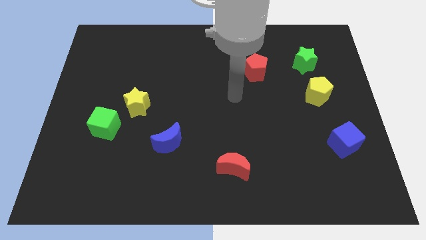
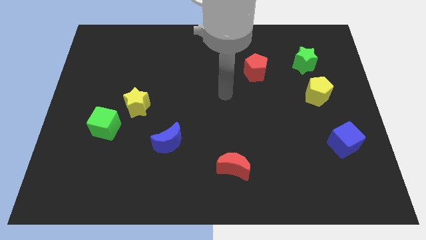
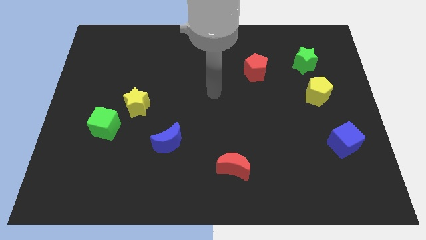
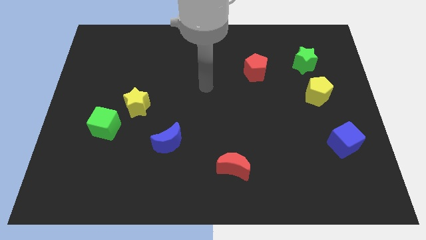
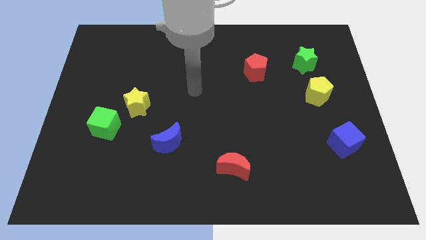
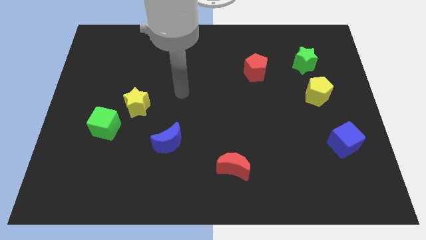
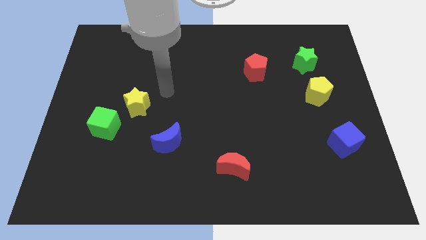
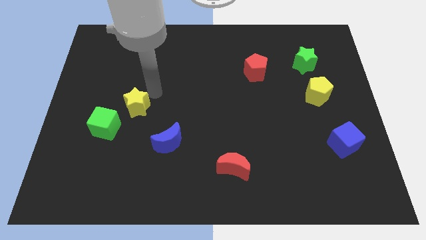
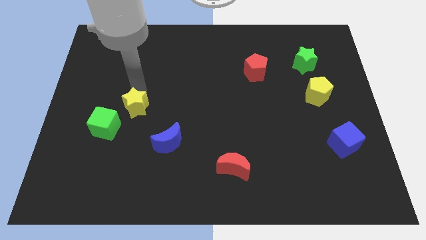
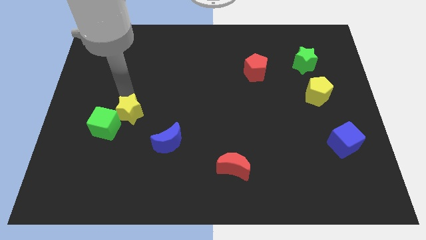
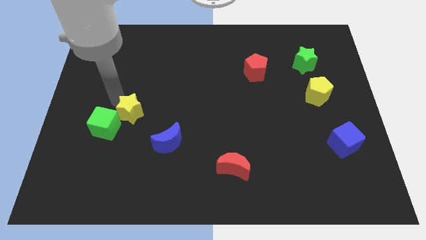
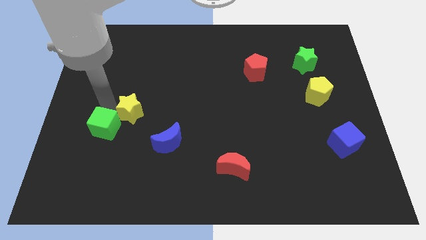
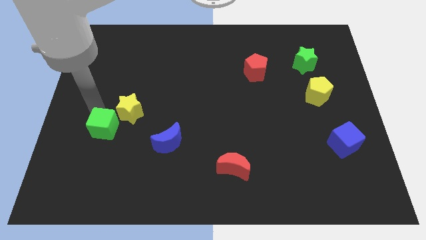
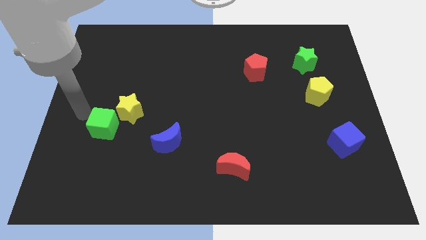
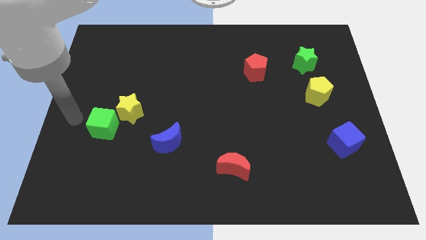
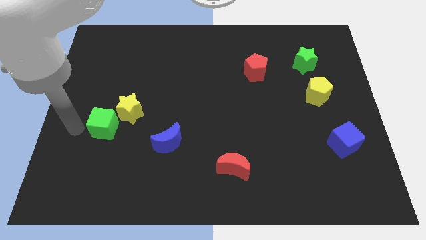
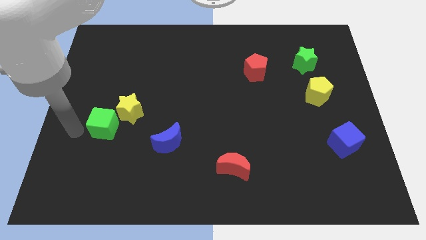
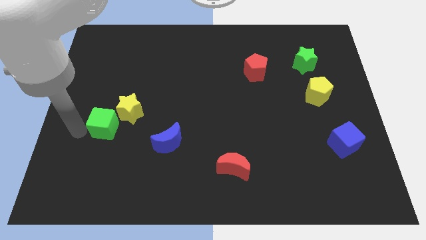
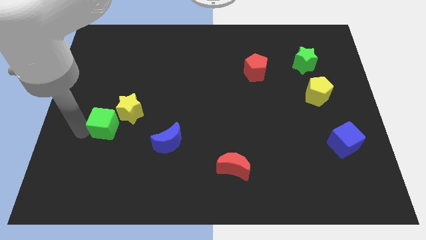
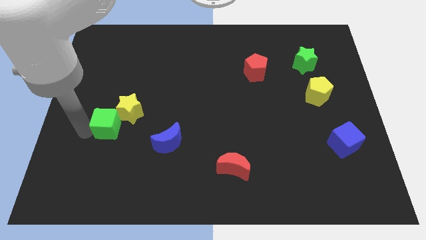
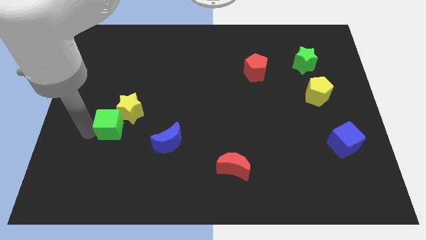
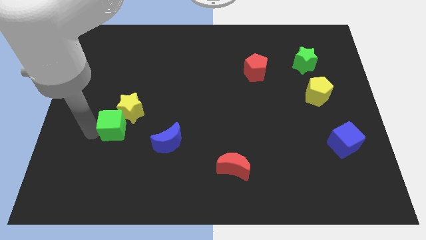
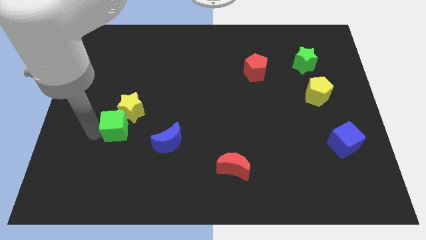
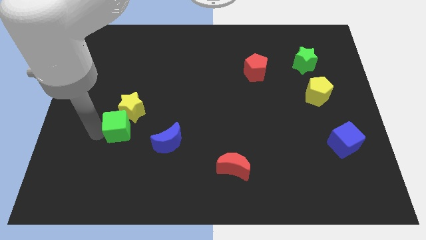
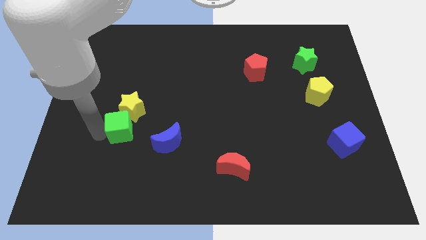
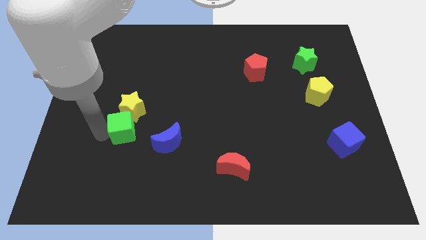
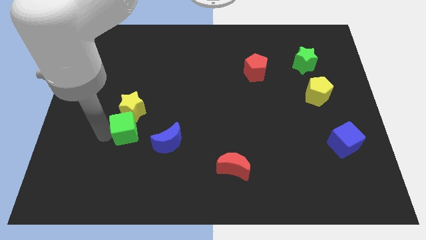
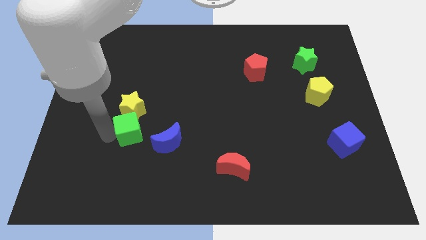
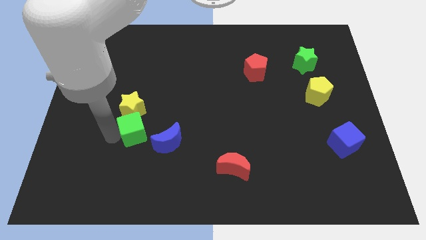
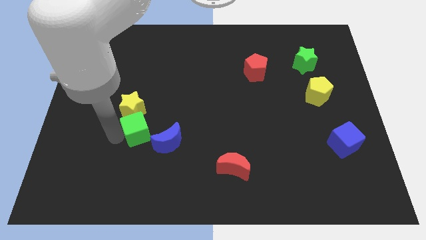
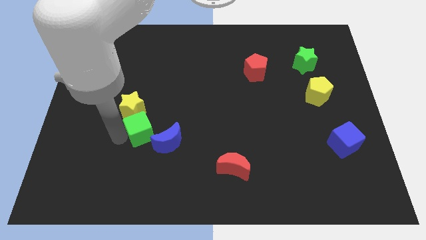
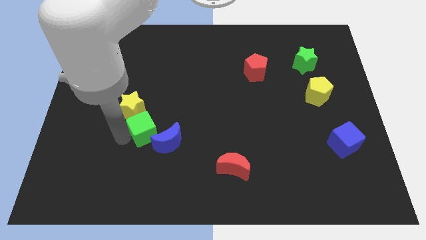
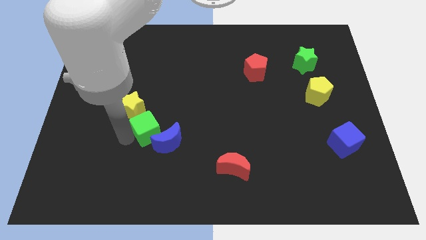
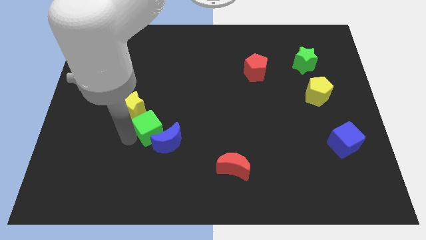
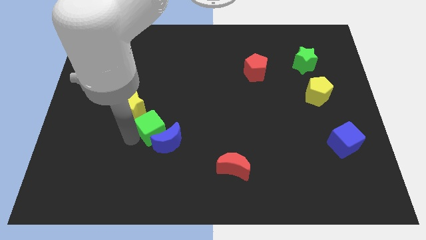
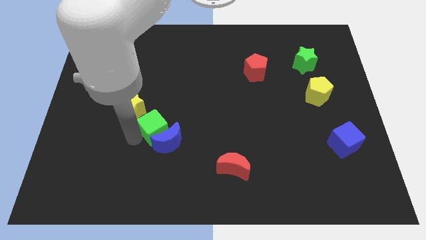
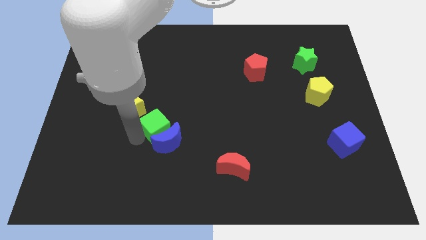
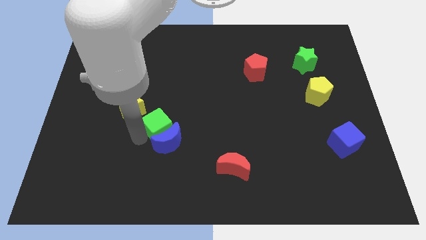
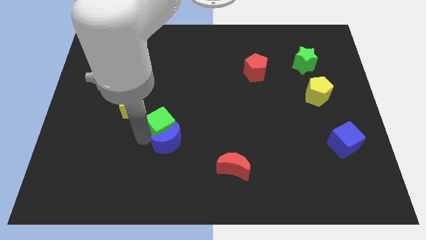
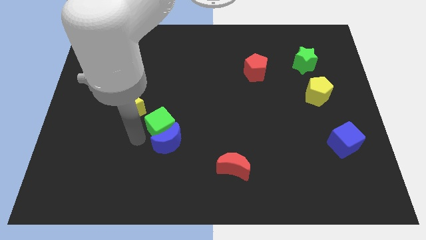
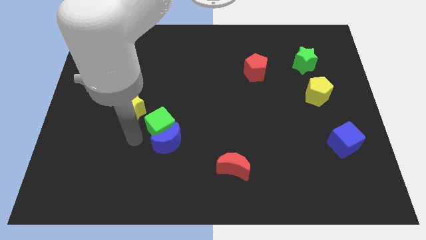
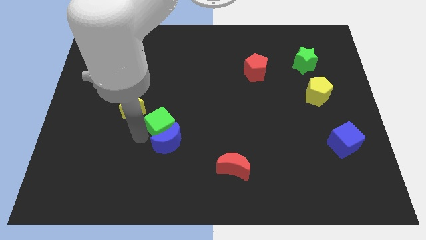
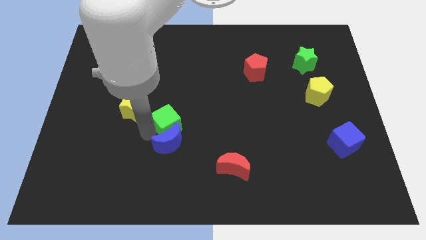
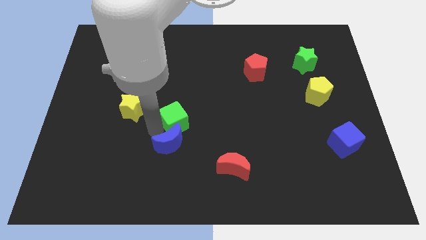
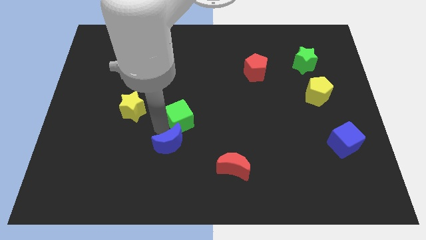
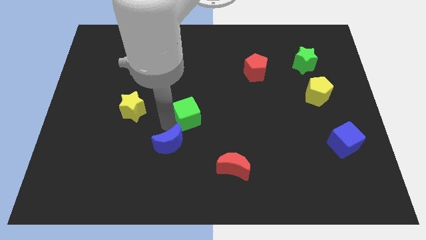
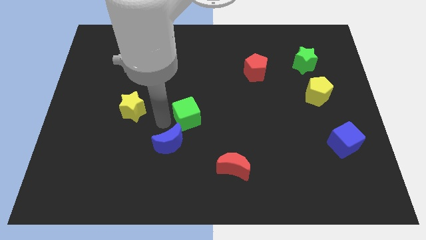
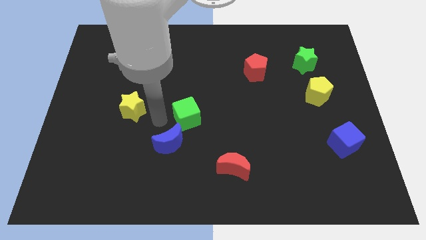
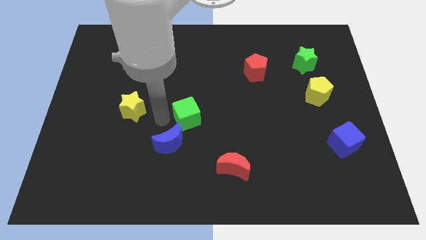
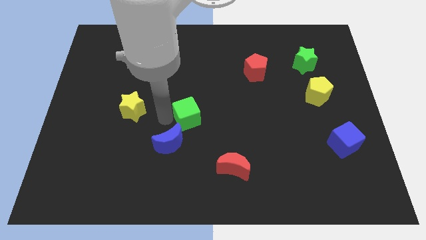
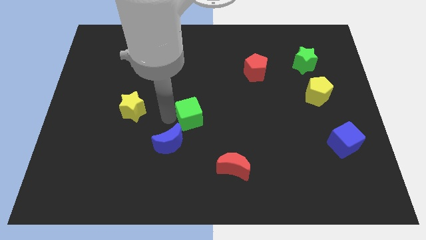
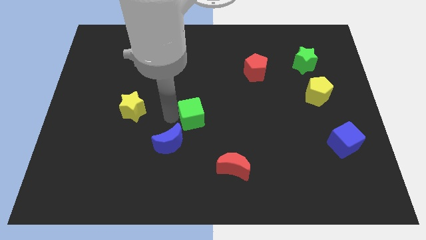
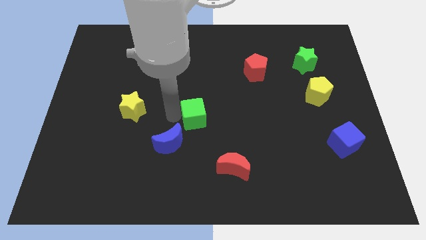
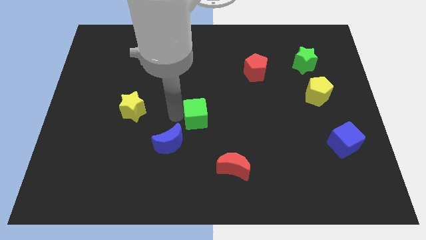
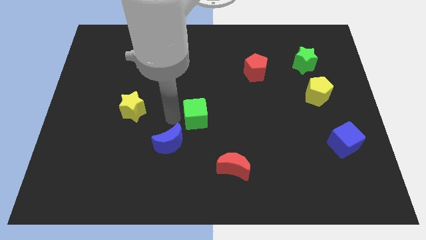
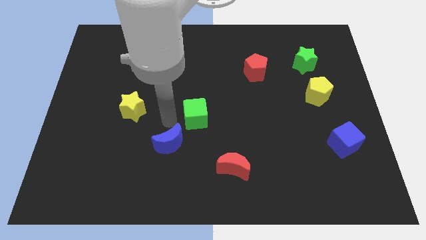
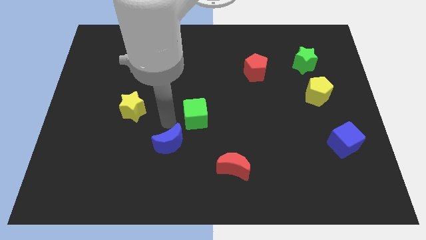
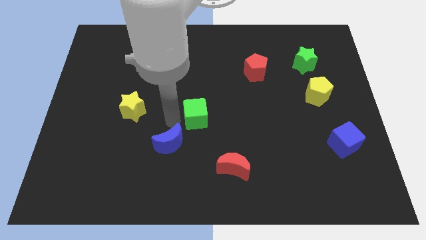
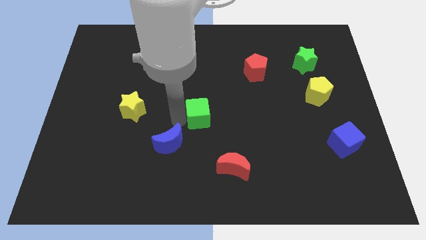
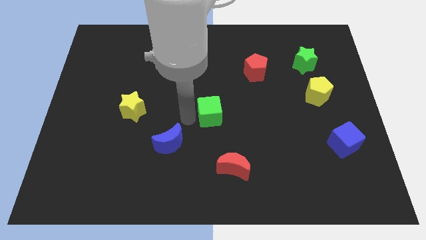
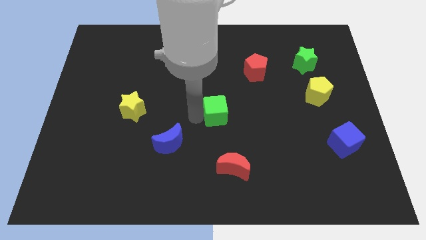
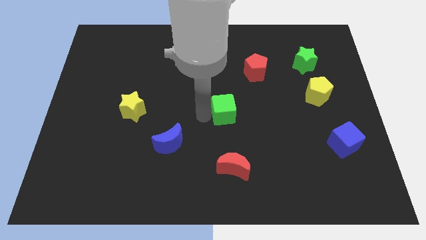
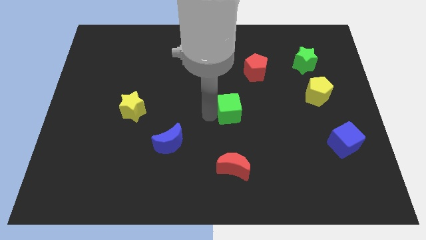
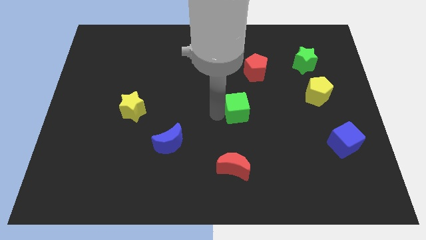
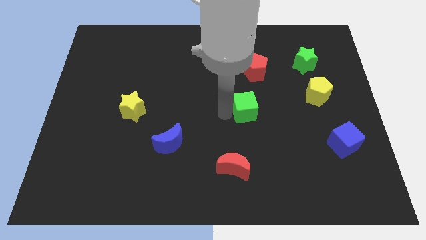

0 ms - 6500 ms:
push the green cube to the bottom of the red pentagon

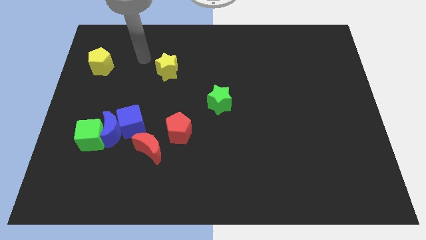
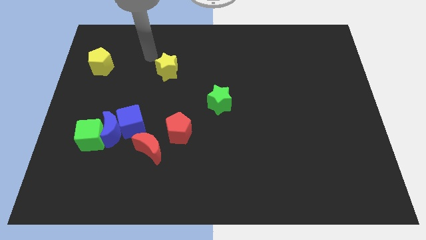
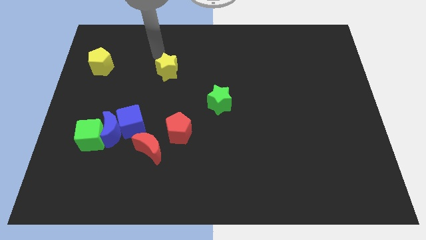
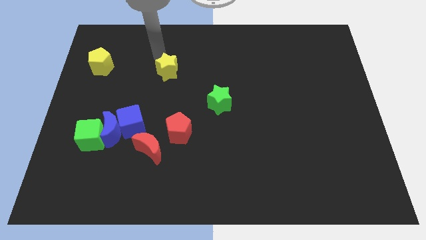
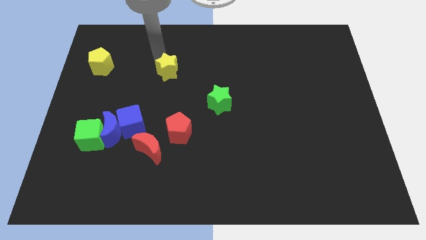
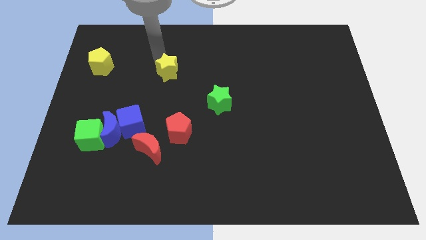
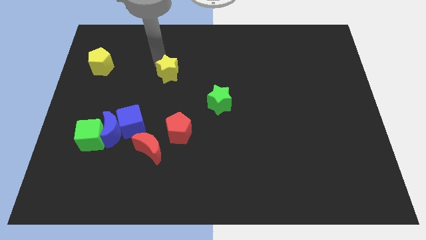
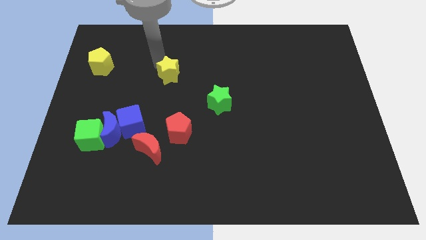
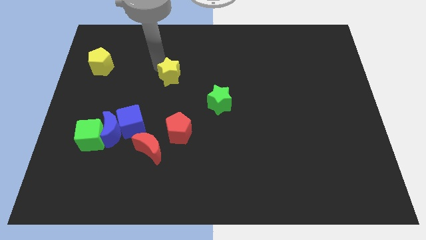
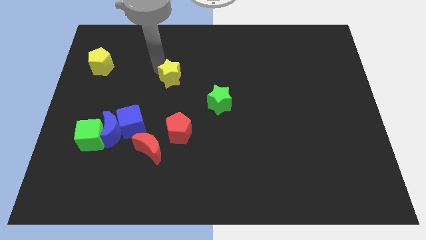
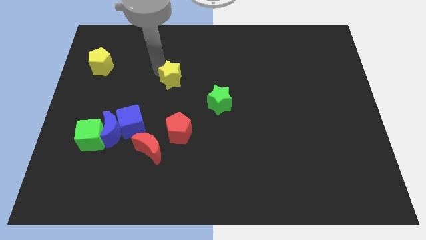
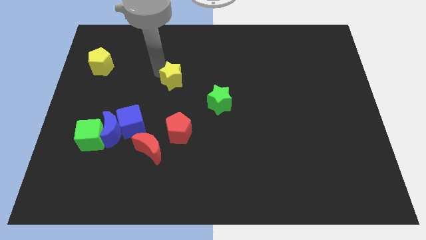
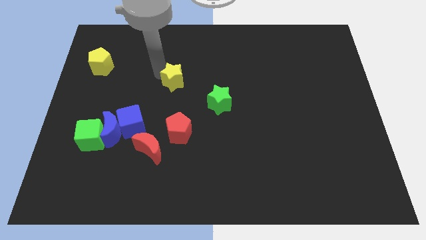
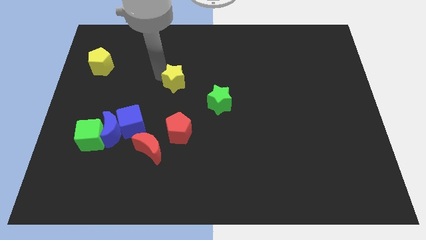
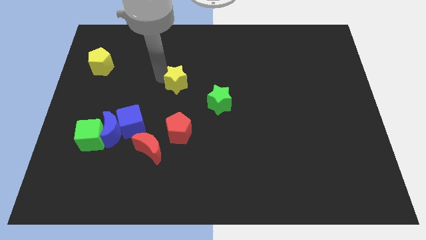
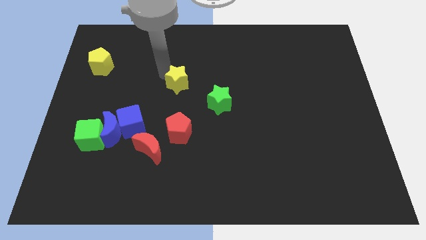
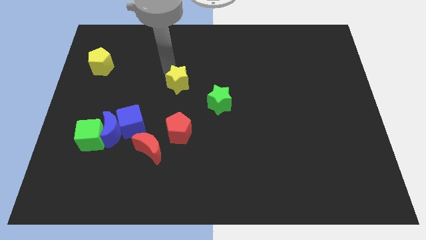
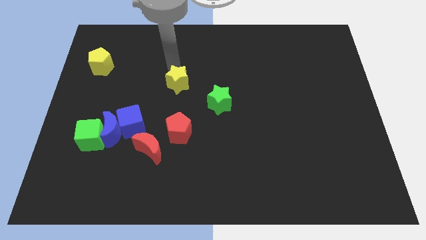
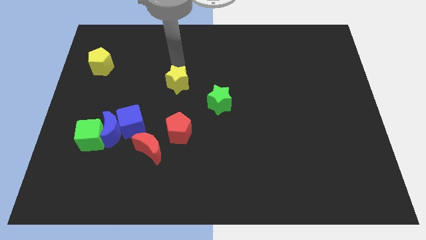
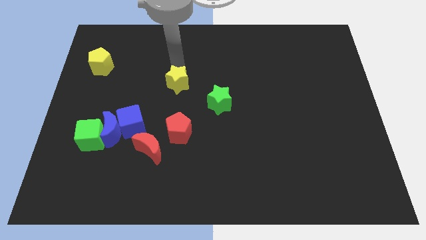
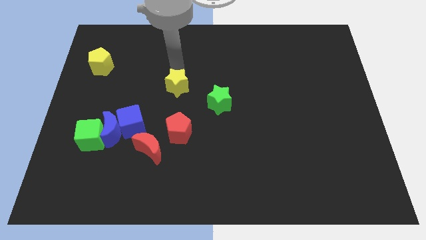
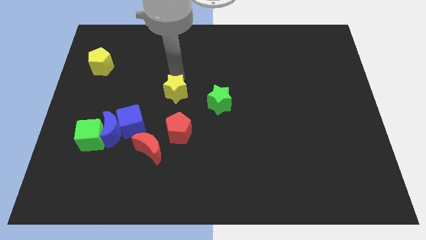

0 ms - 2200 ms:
move the yellow star left of the green star

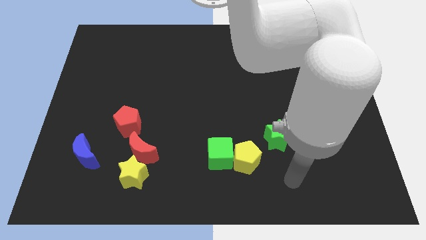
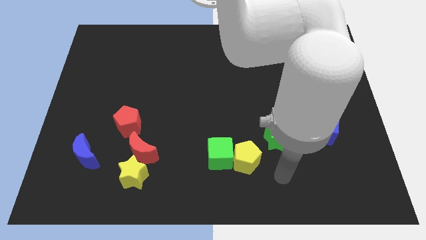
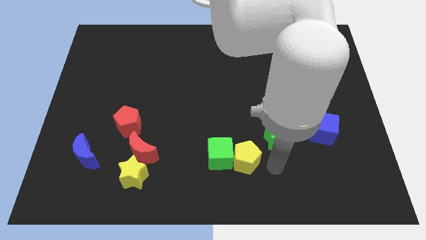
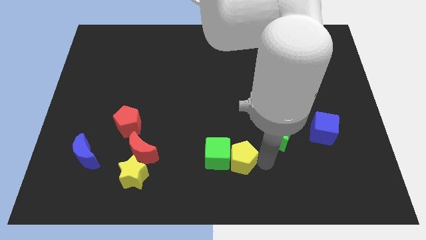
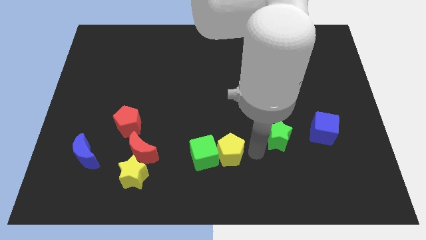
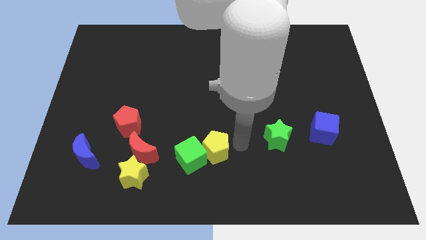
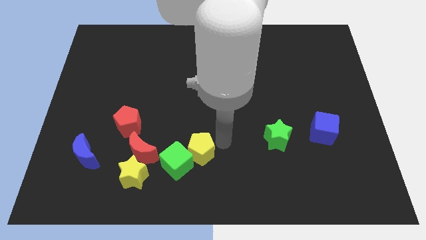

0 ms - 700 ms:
push the green cube to the bottom right of the red moon
